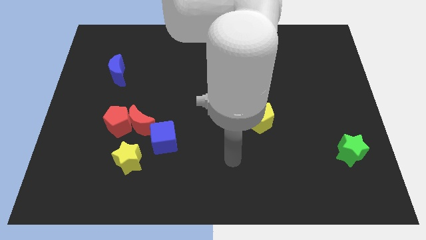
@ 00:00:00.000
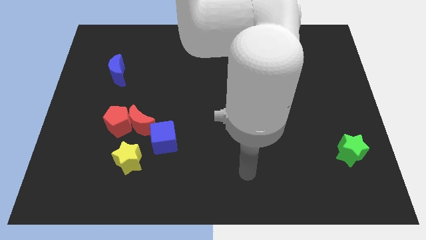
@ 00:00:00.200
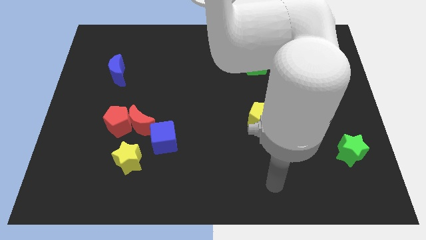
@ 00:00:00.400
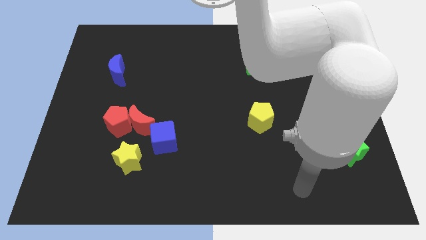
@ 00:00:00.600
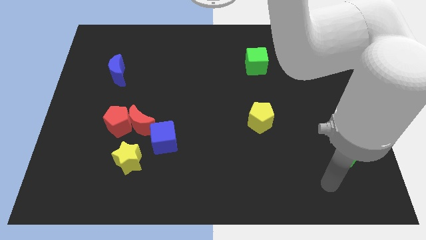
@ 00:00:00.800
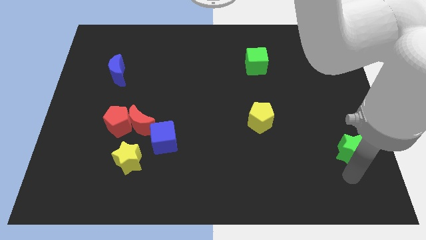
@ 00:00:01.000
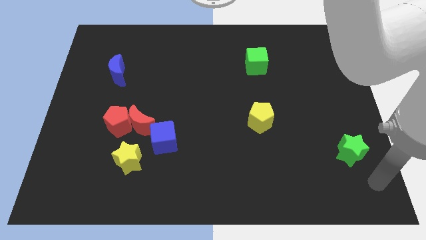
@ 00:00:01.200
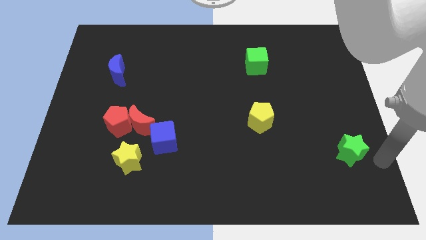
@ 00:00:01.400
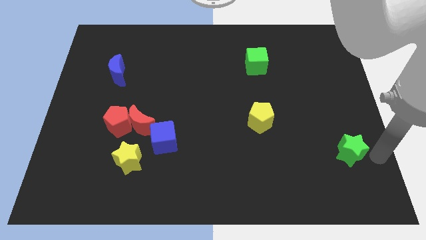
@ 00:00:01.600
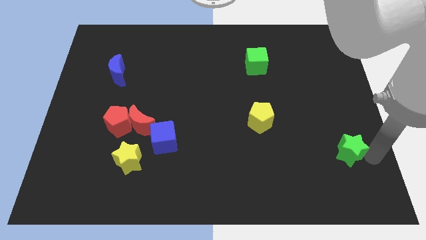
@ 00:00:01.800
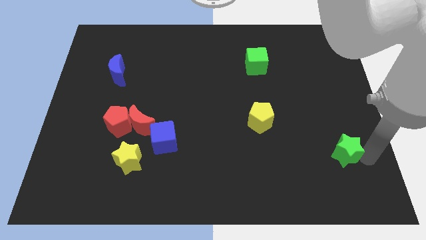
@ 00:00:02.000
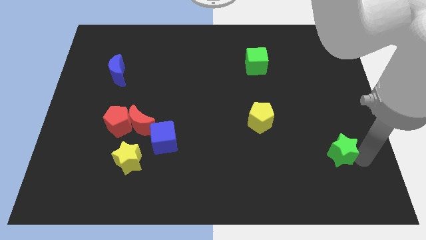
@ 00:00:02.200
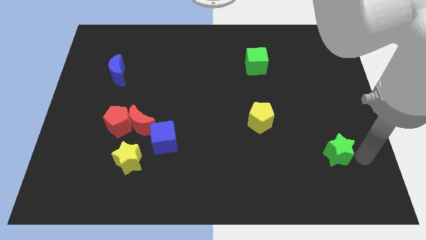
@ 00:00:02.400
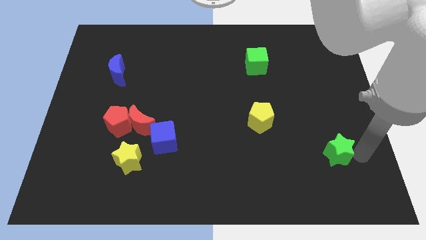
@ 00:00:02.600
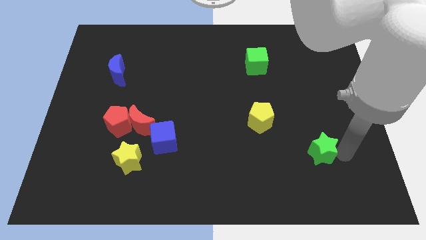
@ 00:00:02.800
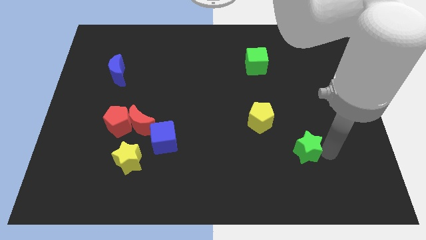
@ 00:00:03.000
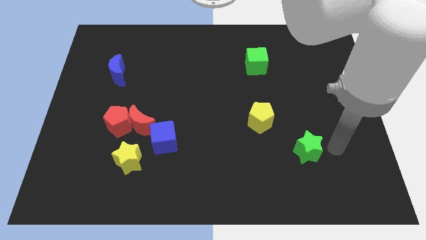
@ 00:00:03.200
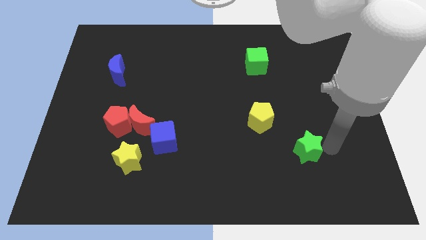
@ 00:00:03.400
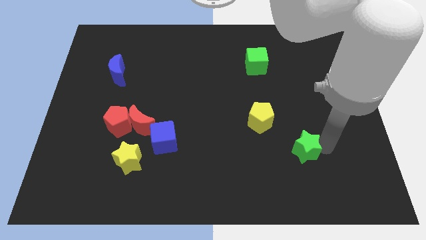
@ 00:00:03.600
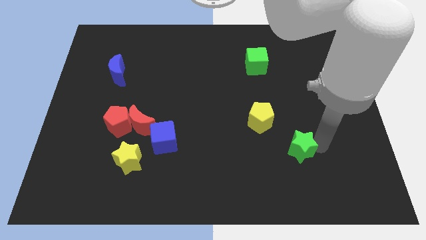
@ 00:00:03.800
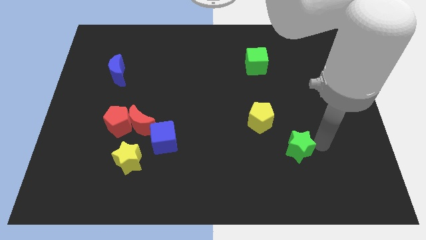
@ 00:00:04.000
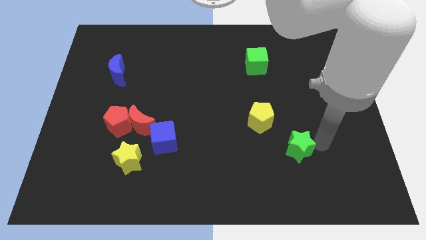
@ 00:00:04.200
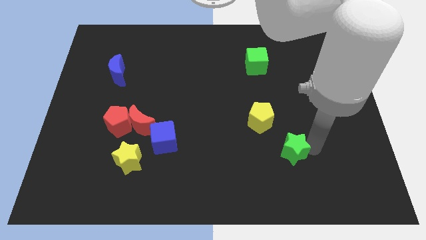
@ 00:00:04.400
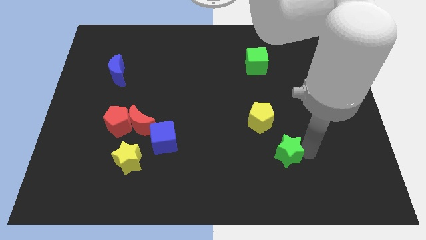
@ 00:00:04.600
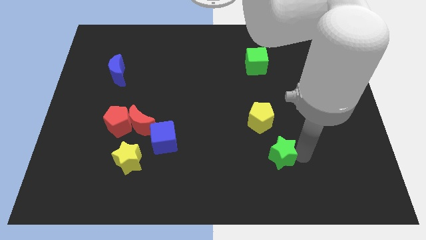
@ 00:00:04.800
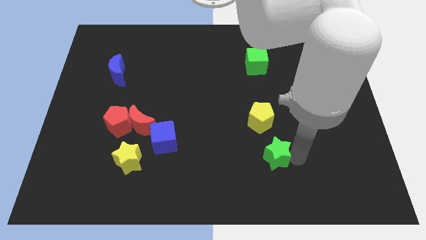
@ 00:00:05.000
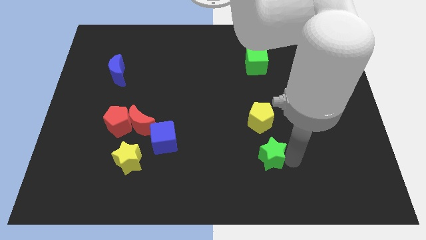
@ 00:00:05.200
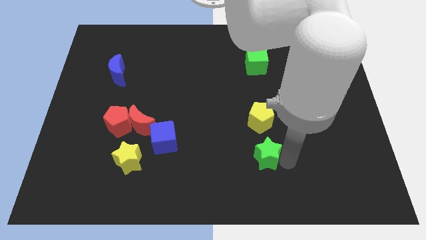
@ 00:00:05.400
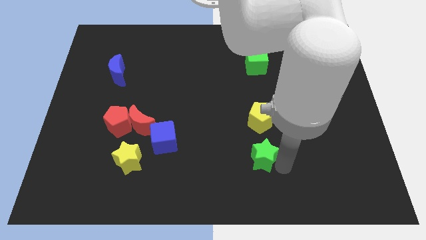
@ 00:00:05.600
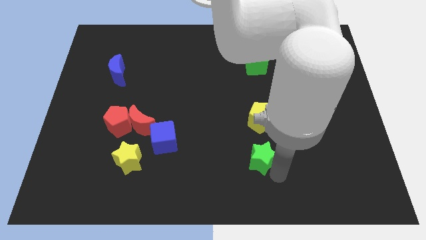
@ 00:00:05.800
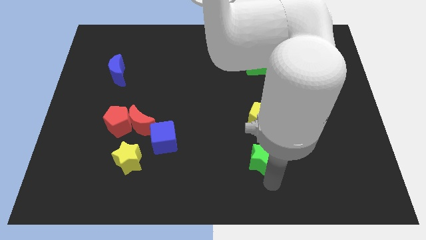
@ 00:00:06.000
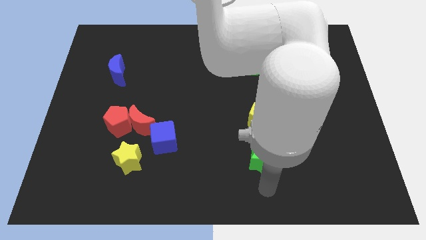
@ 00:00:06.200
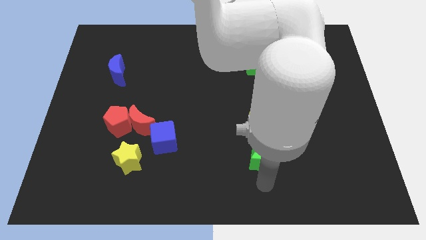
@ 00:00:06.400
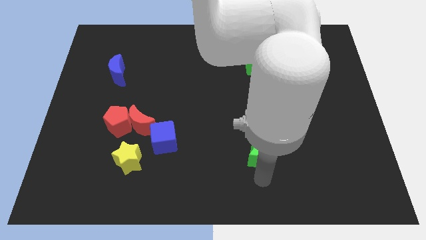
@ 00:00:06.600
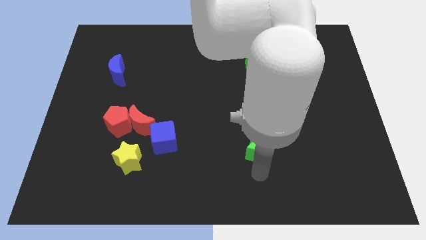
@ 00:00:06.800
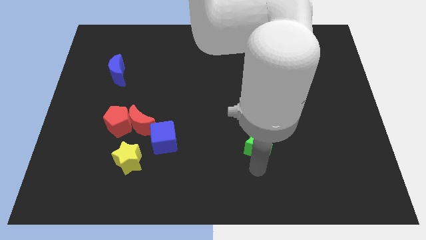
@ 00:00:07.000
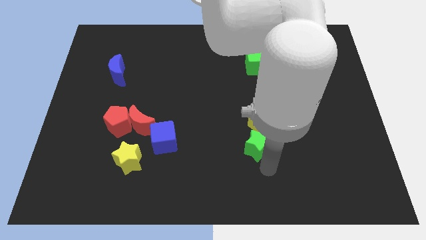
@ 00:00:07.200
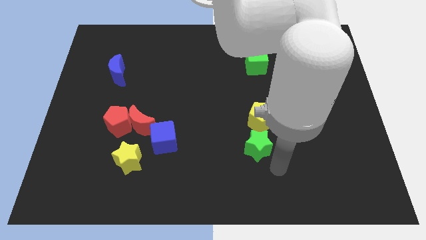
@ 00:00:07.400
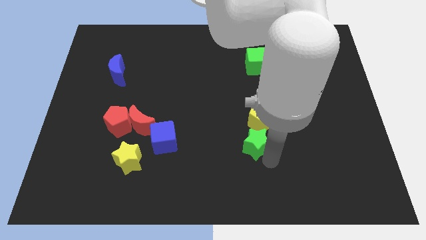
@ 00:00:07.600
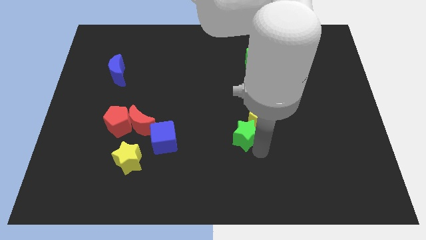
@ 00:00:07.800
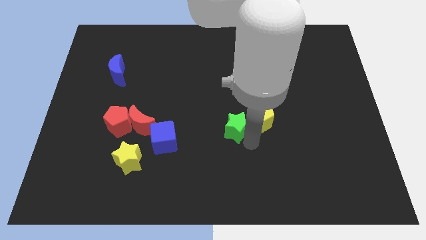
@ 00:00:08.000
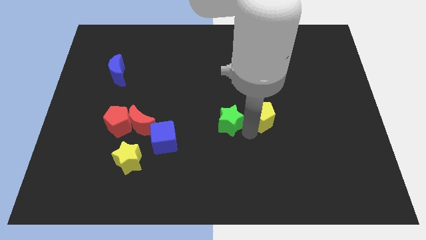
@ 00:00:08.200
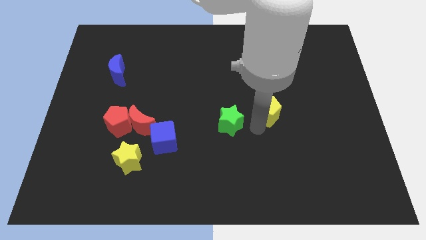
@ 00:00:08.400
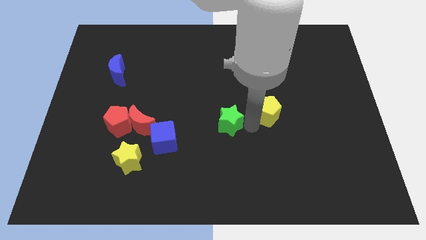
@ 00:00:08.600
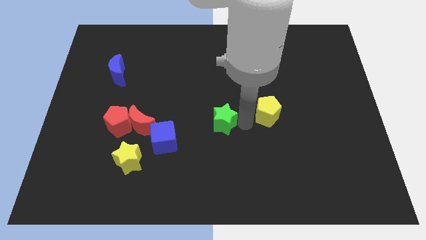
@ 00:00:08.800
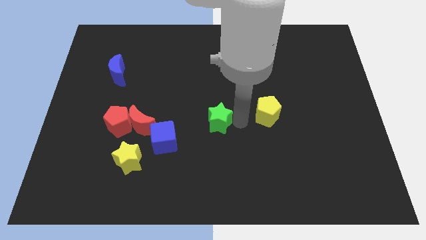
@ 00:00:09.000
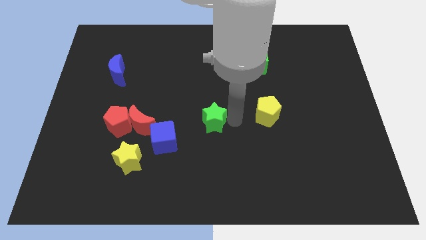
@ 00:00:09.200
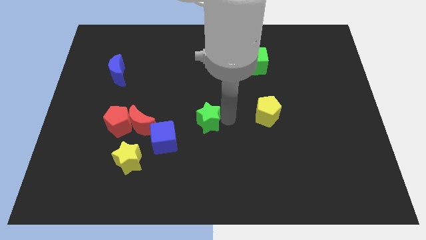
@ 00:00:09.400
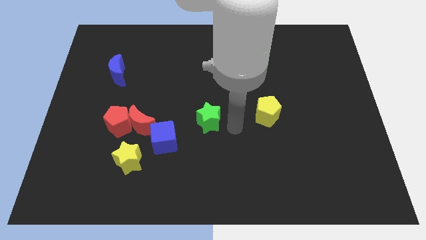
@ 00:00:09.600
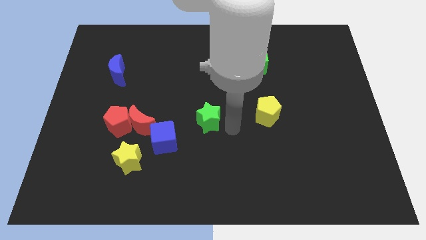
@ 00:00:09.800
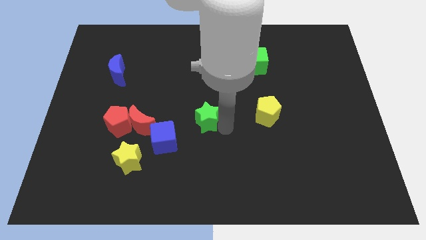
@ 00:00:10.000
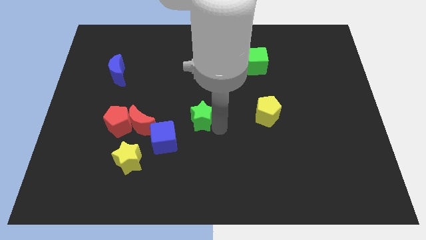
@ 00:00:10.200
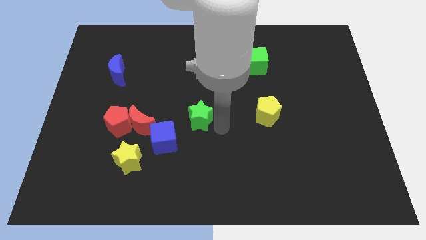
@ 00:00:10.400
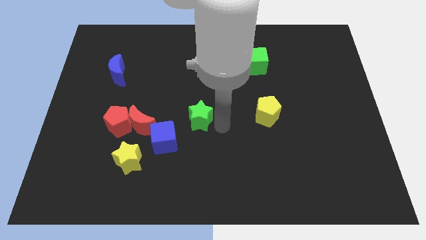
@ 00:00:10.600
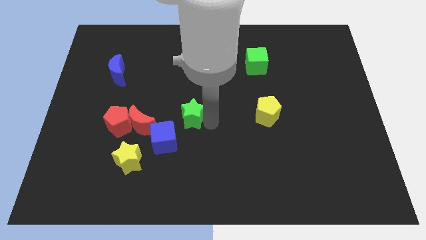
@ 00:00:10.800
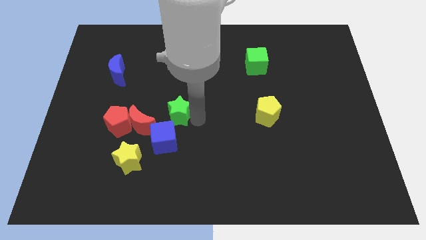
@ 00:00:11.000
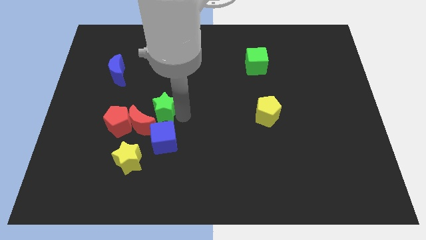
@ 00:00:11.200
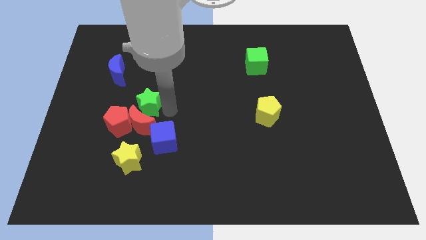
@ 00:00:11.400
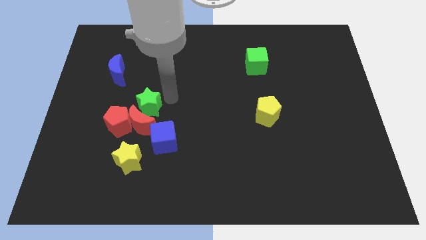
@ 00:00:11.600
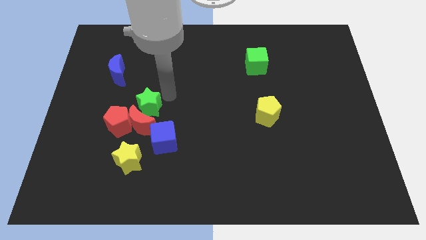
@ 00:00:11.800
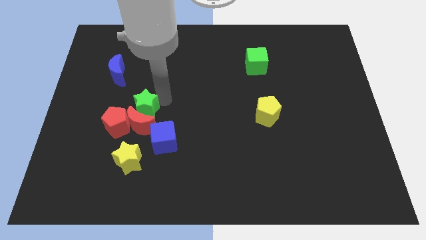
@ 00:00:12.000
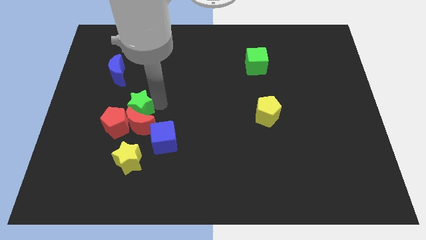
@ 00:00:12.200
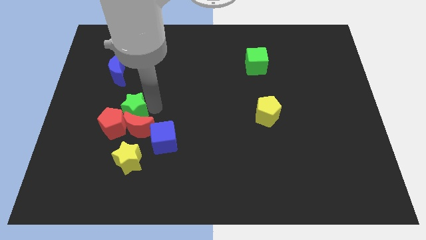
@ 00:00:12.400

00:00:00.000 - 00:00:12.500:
move the green star close to the red pentagon

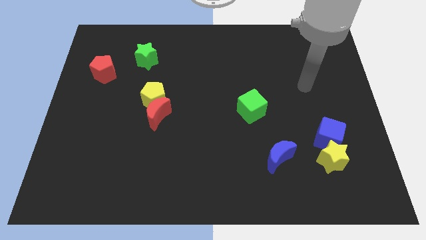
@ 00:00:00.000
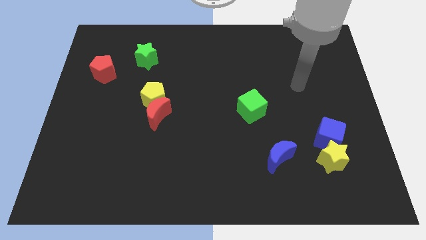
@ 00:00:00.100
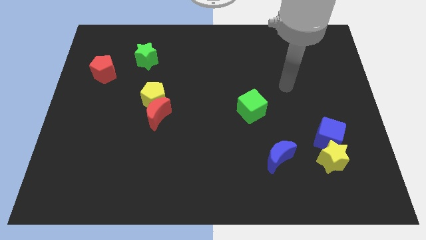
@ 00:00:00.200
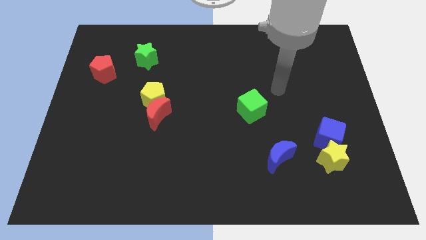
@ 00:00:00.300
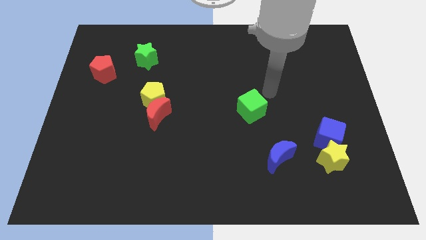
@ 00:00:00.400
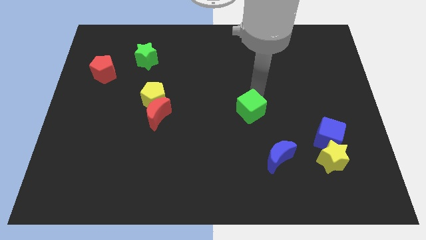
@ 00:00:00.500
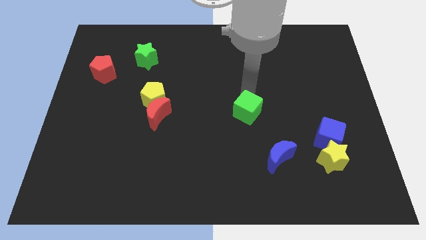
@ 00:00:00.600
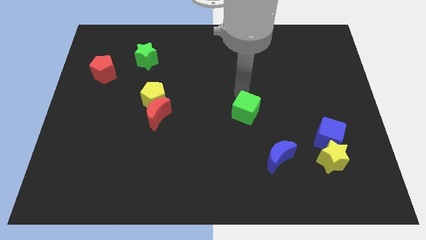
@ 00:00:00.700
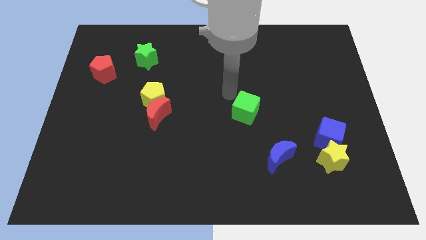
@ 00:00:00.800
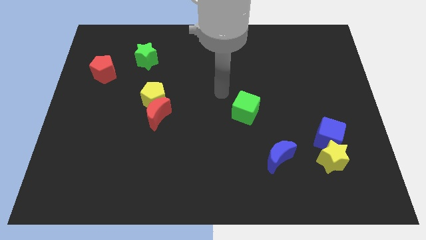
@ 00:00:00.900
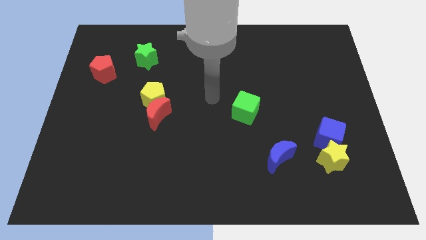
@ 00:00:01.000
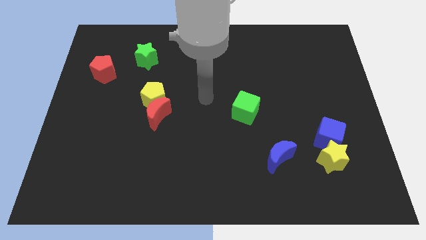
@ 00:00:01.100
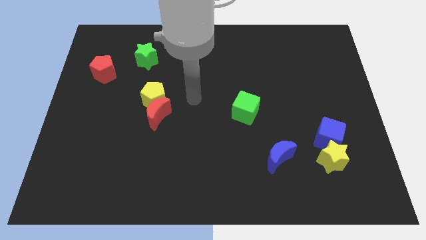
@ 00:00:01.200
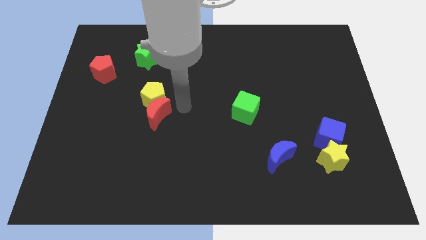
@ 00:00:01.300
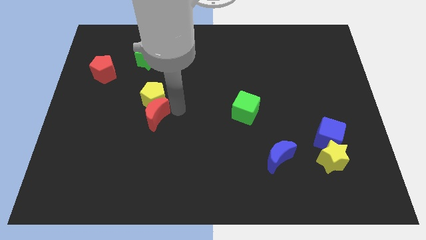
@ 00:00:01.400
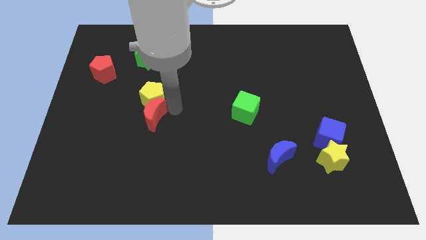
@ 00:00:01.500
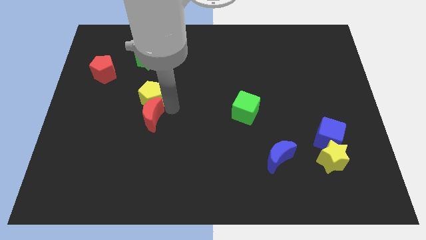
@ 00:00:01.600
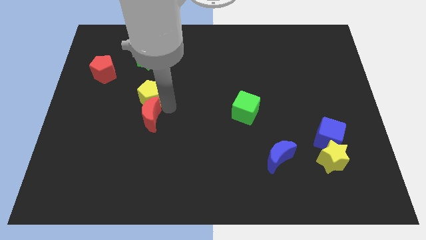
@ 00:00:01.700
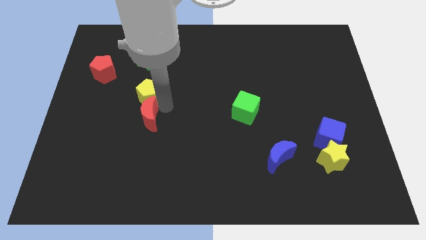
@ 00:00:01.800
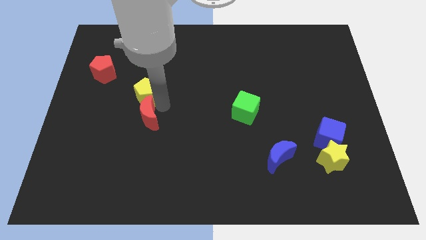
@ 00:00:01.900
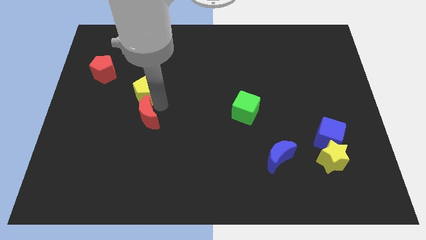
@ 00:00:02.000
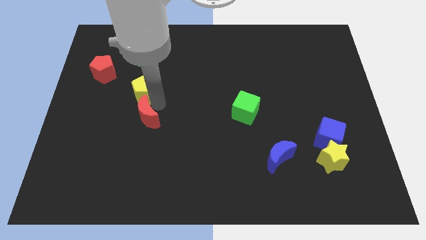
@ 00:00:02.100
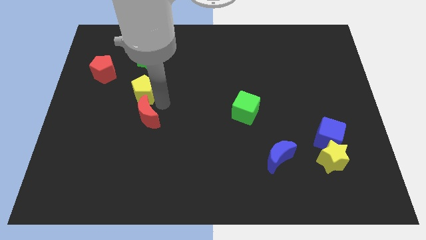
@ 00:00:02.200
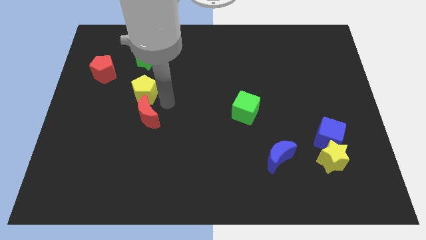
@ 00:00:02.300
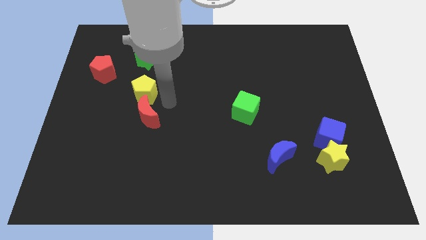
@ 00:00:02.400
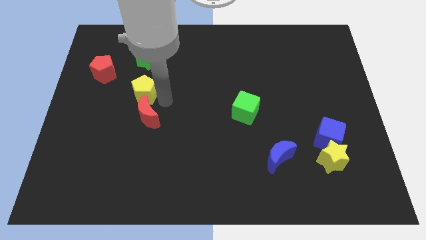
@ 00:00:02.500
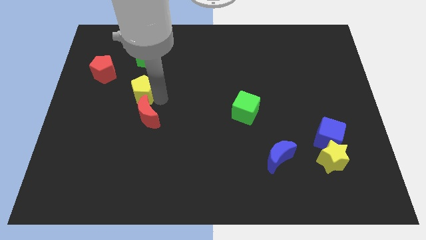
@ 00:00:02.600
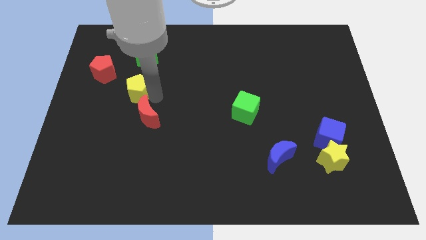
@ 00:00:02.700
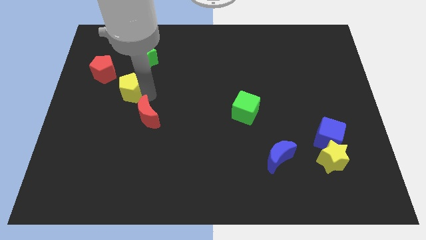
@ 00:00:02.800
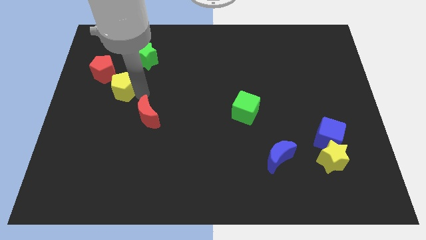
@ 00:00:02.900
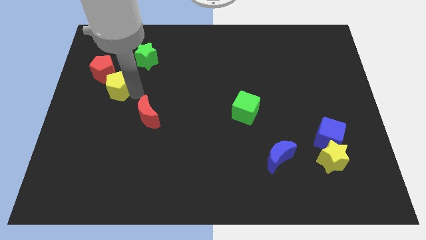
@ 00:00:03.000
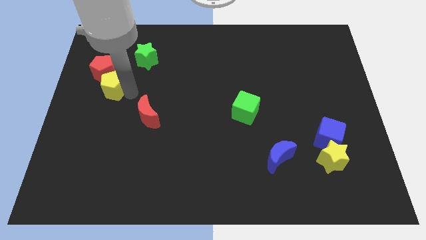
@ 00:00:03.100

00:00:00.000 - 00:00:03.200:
push the yellow pentagon to the red pentagon
